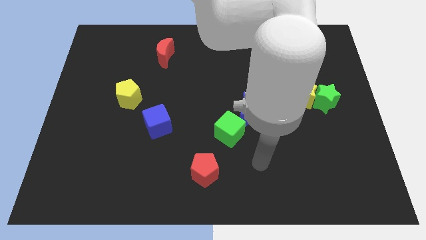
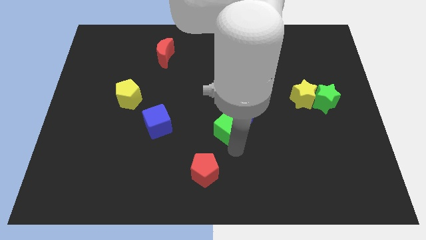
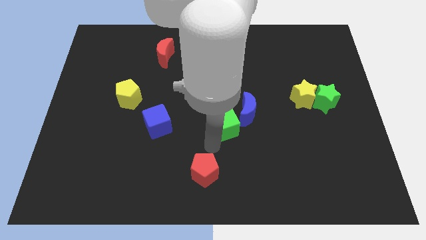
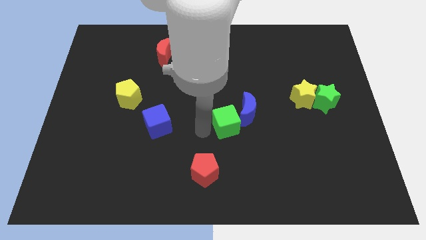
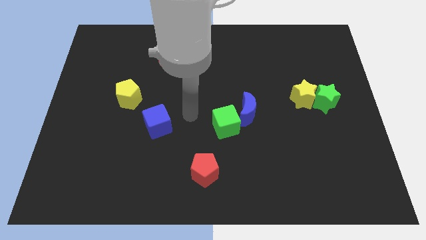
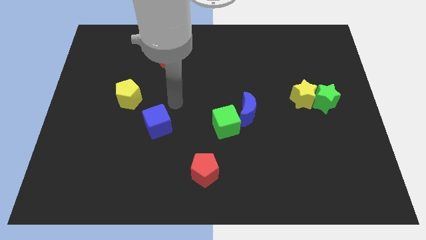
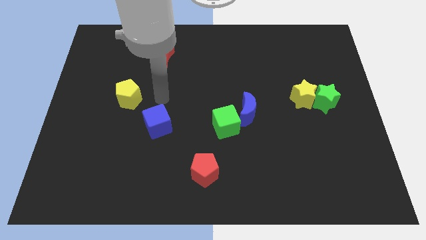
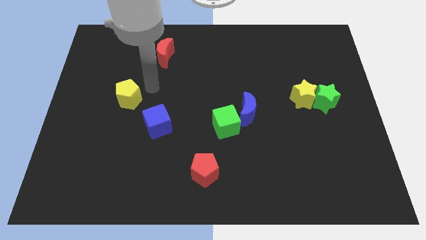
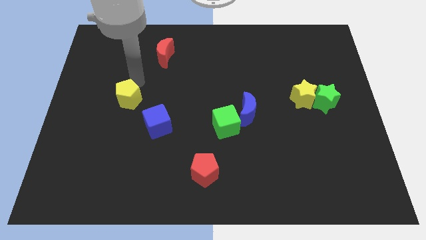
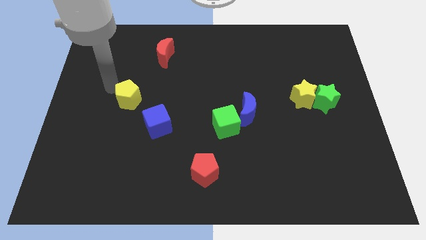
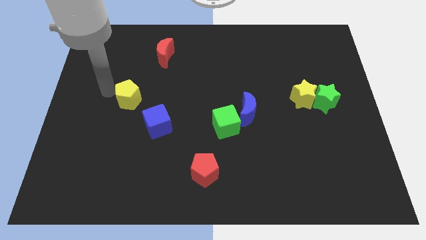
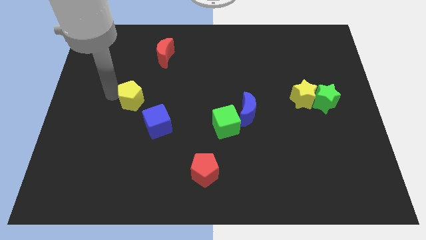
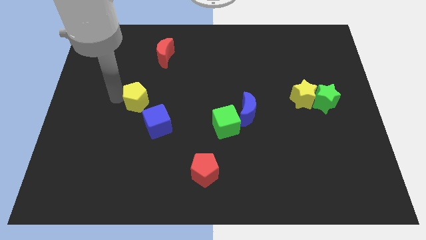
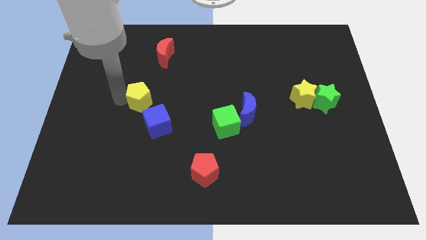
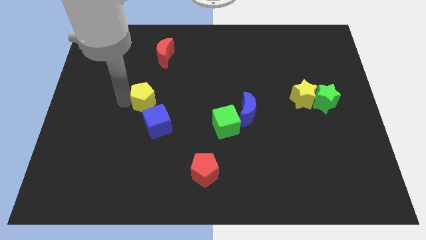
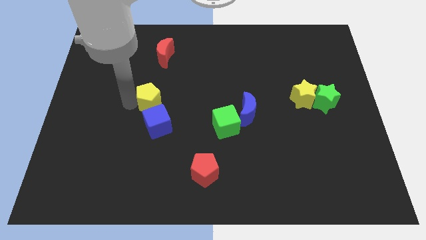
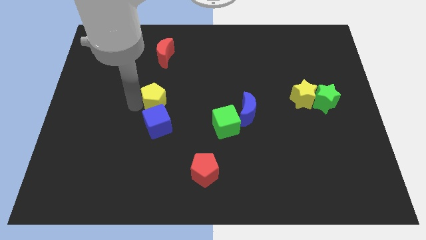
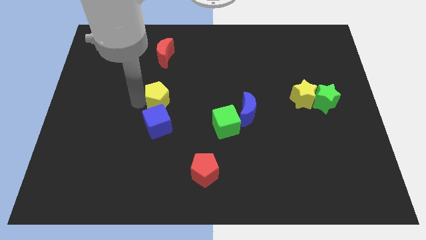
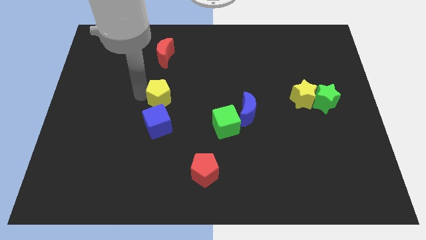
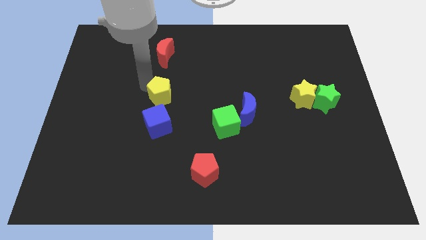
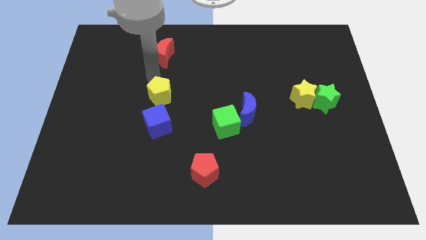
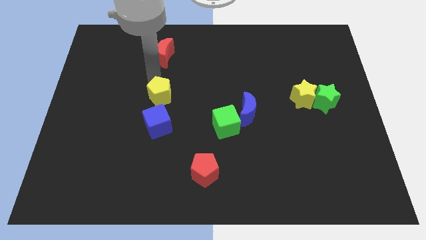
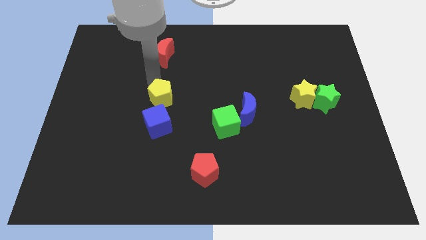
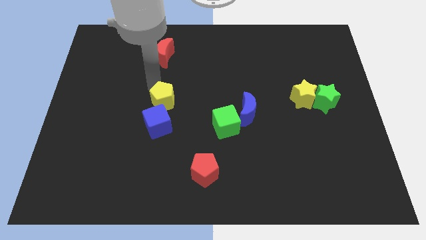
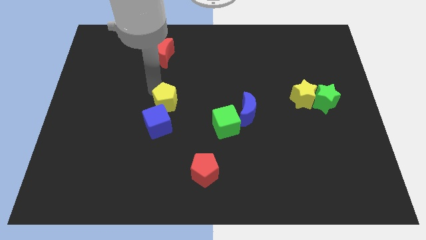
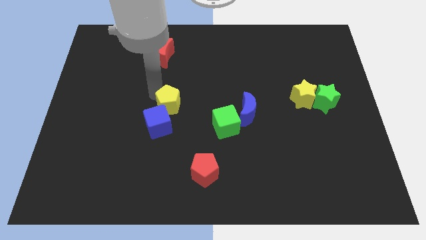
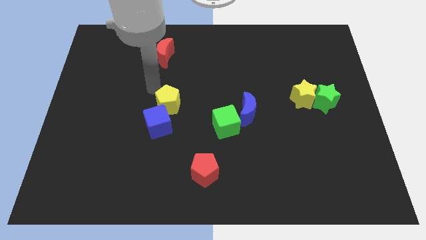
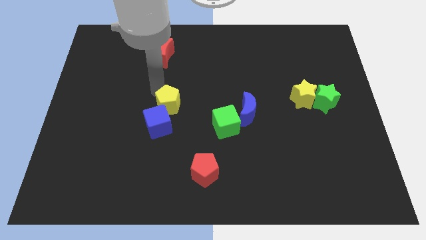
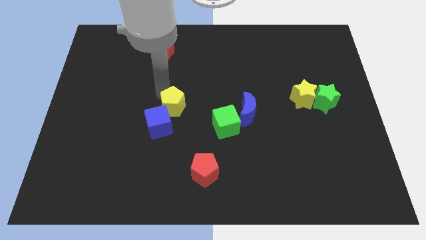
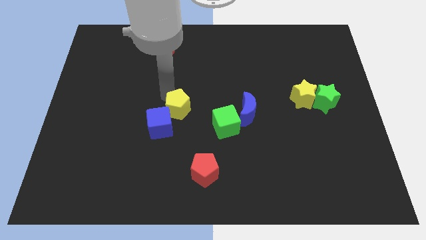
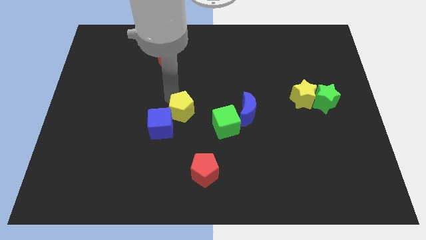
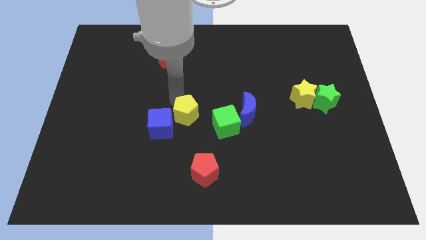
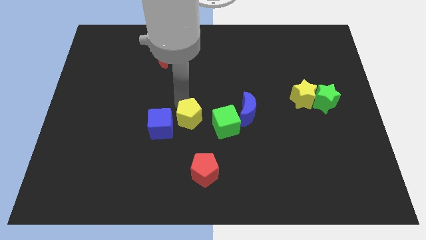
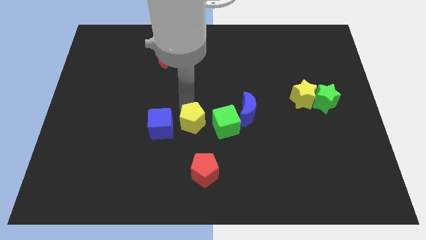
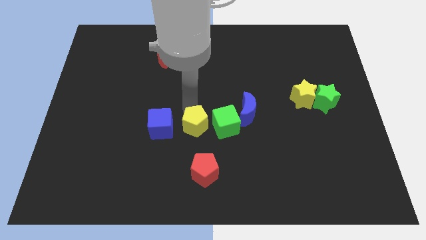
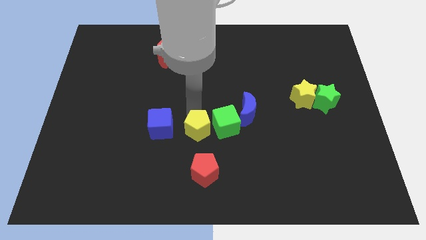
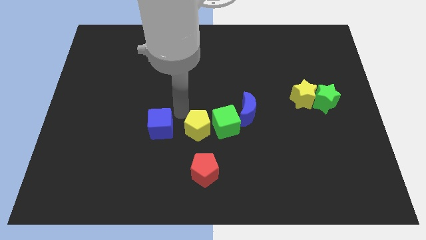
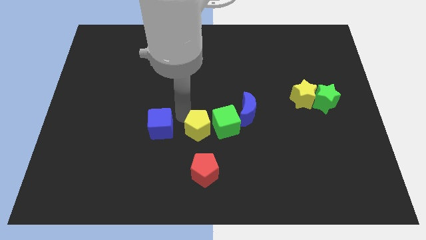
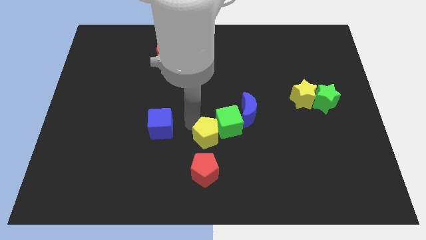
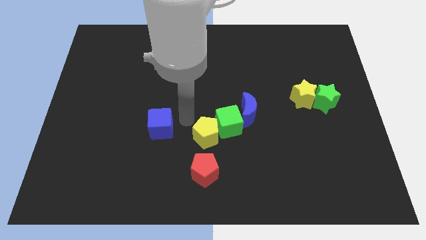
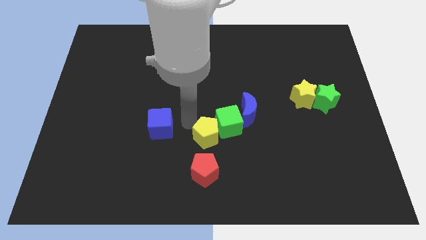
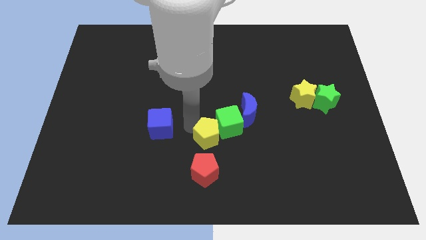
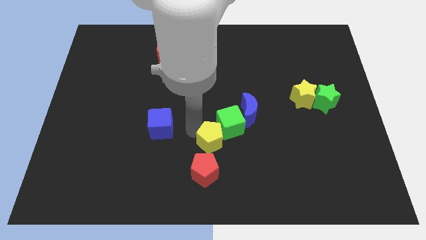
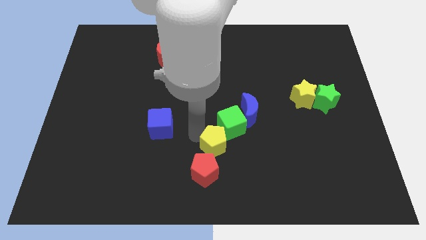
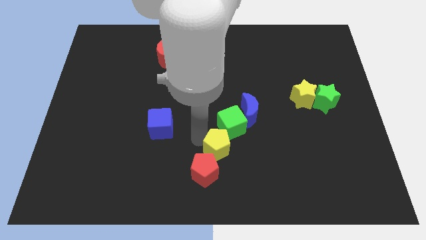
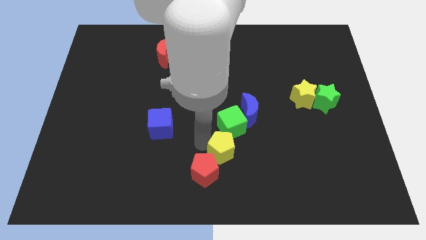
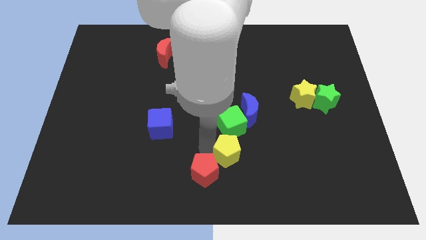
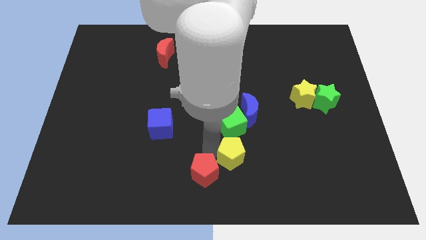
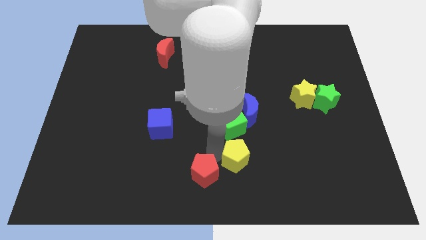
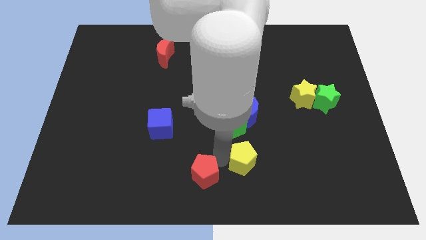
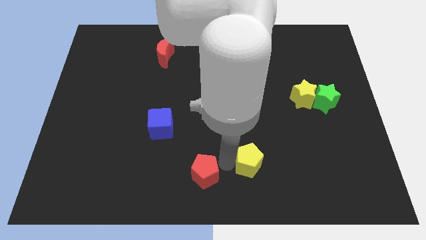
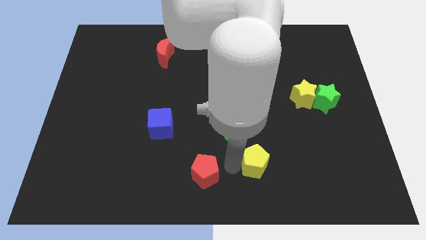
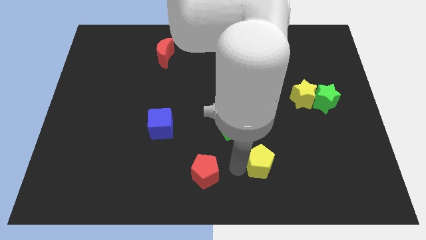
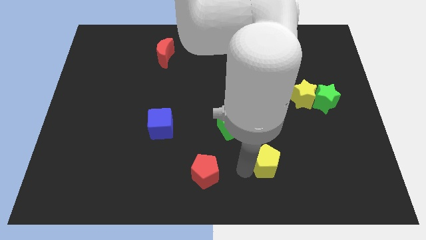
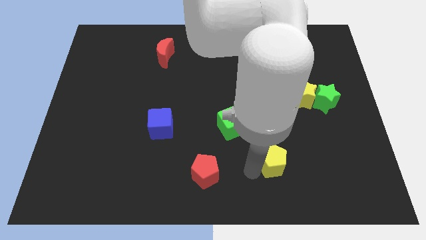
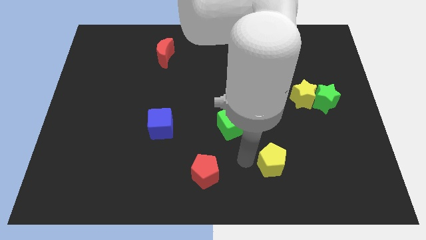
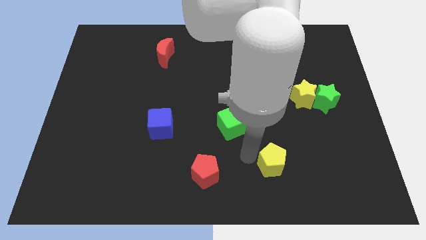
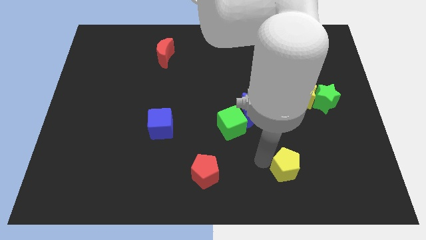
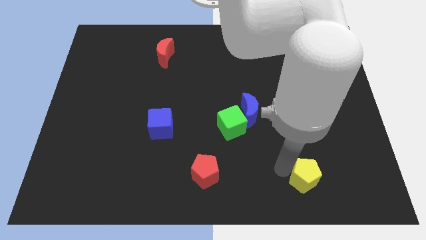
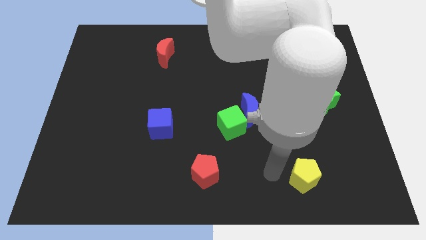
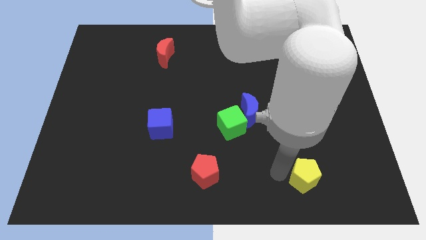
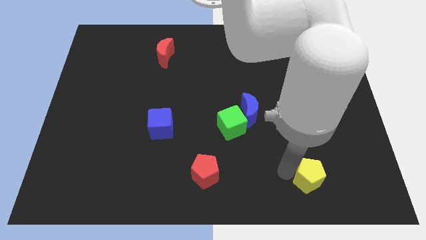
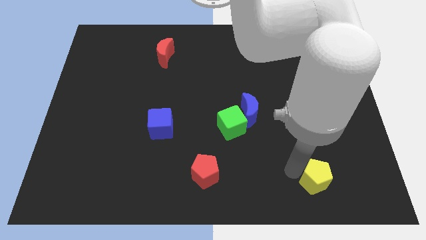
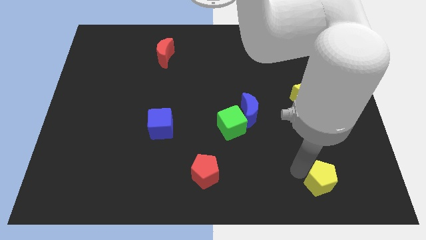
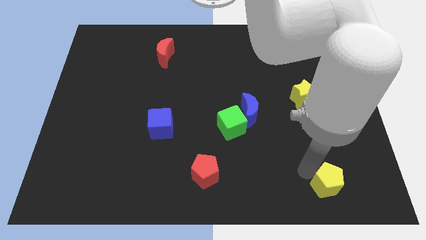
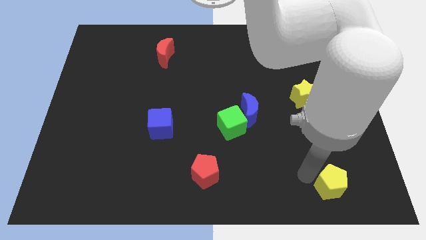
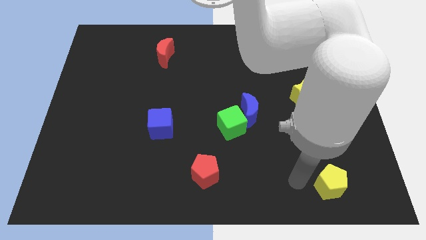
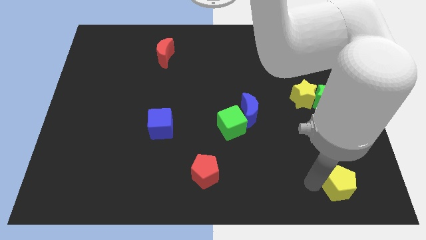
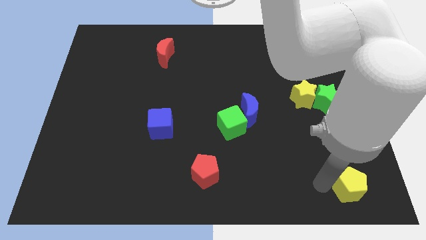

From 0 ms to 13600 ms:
put the yellow pentagon to the bottom right of the board
